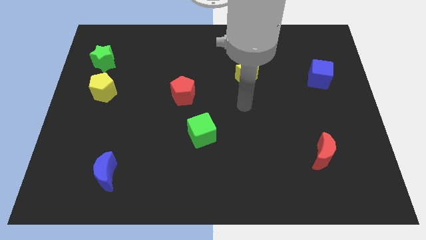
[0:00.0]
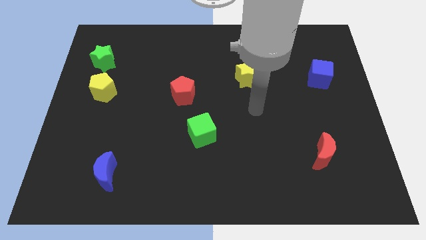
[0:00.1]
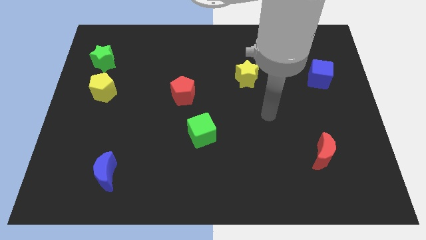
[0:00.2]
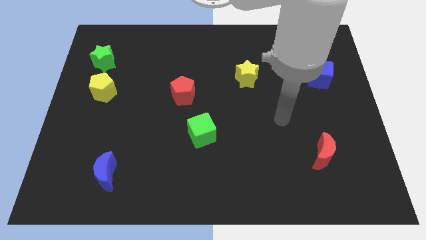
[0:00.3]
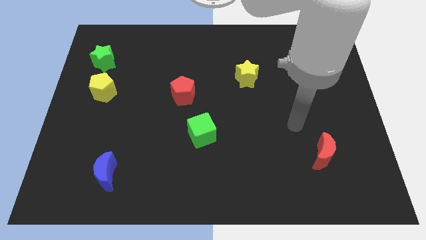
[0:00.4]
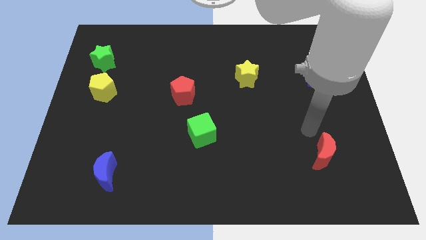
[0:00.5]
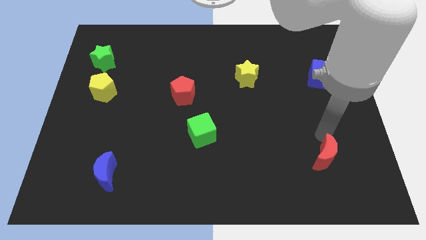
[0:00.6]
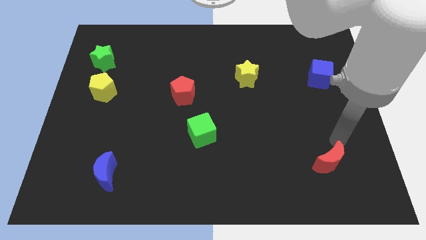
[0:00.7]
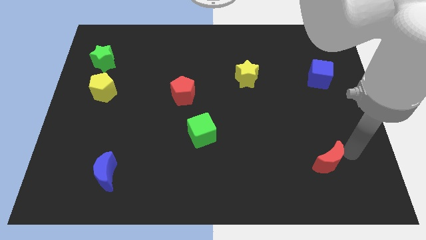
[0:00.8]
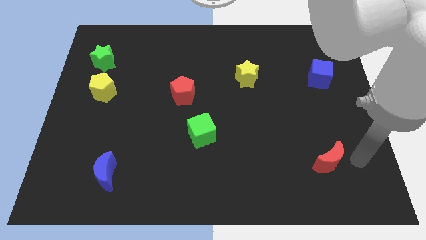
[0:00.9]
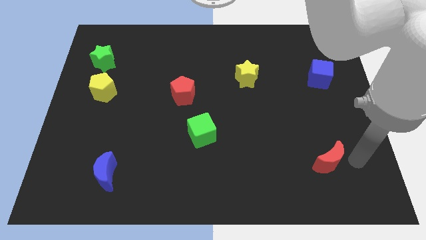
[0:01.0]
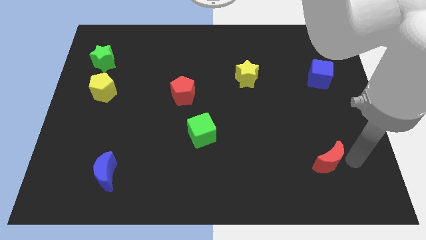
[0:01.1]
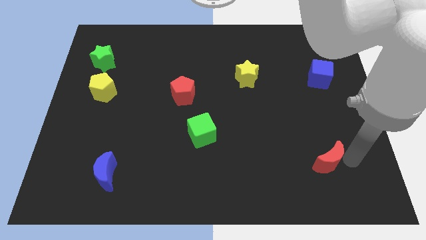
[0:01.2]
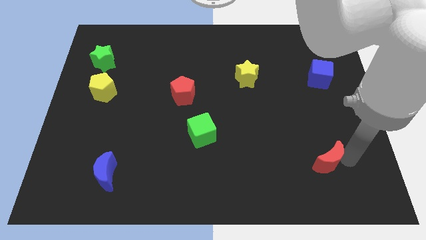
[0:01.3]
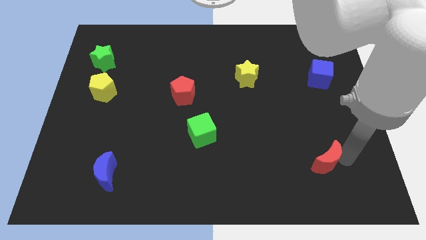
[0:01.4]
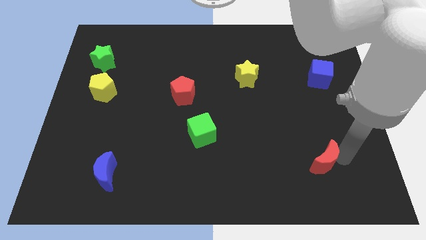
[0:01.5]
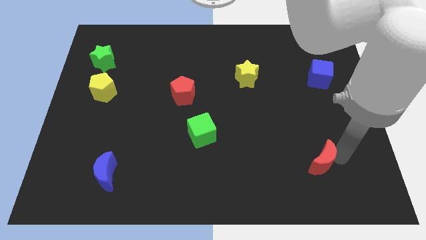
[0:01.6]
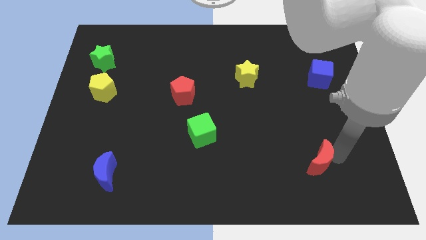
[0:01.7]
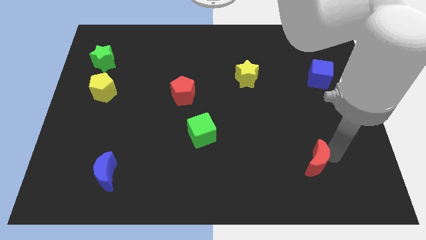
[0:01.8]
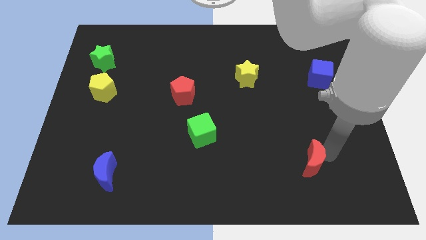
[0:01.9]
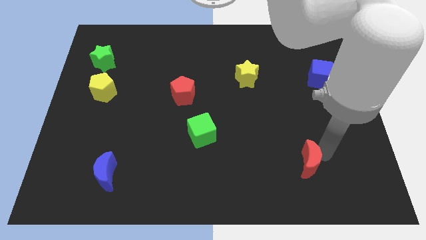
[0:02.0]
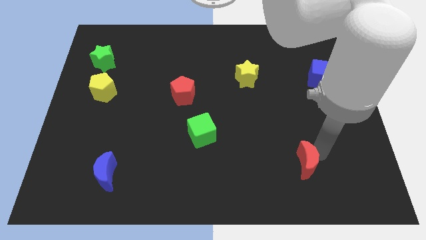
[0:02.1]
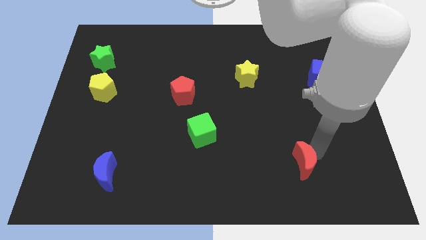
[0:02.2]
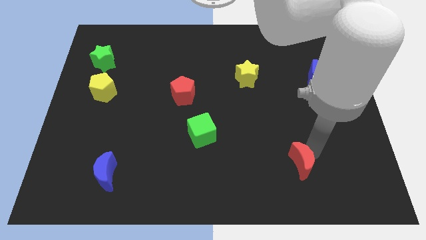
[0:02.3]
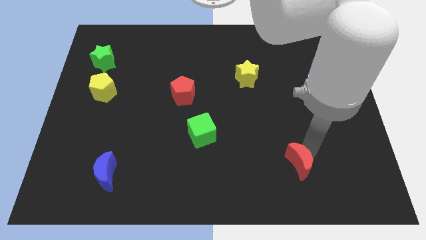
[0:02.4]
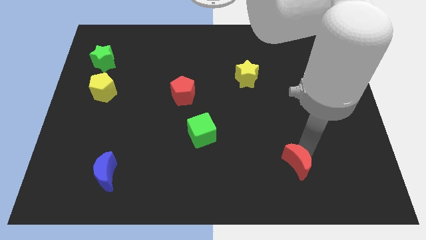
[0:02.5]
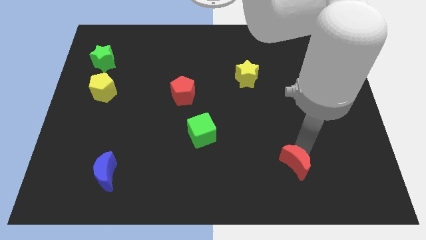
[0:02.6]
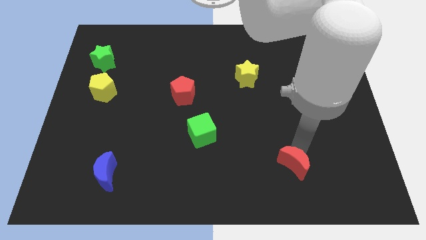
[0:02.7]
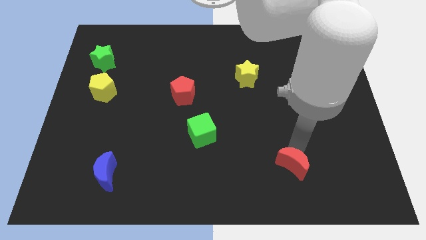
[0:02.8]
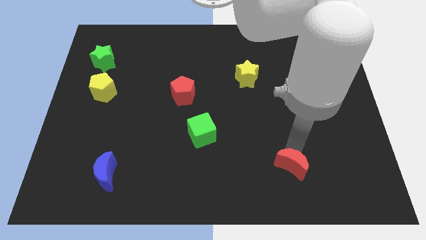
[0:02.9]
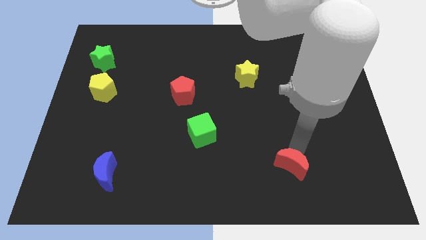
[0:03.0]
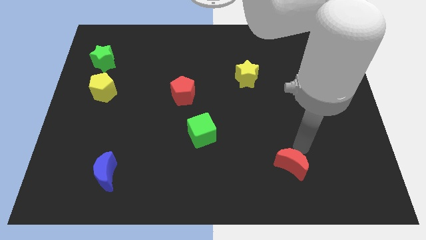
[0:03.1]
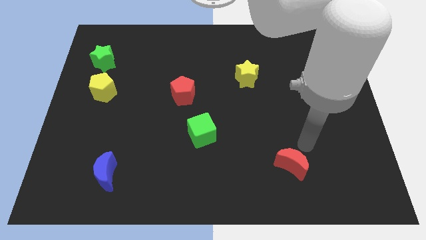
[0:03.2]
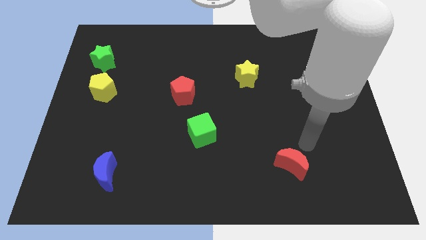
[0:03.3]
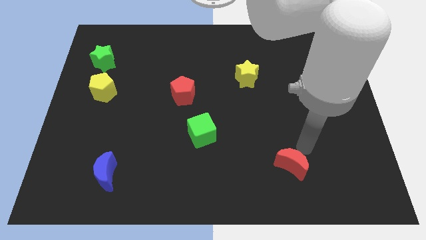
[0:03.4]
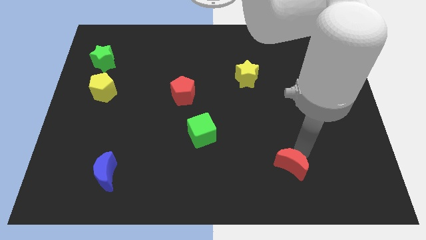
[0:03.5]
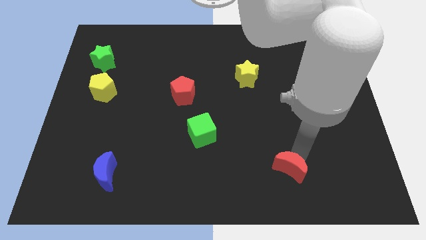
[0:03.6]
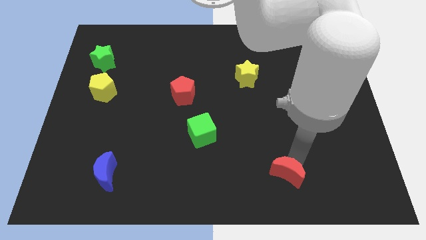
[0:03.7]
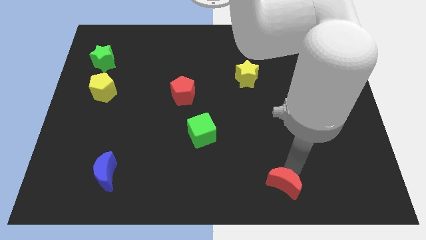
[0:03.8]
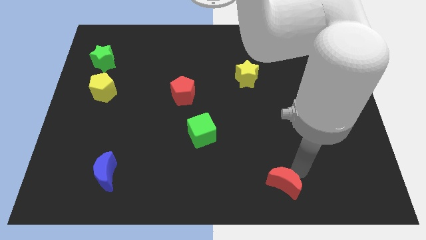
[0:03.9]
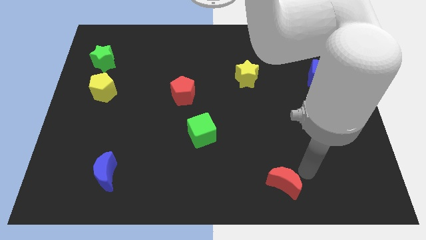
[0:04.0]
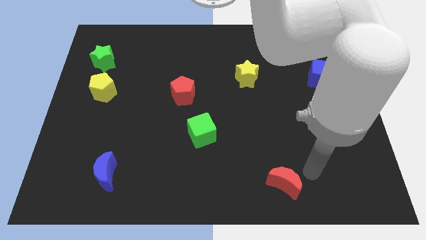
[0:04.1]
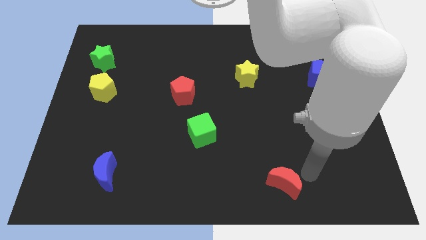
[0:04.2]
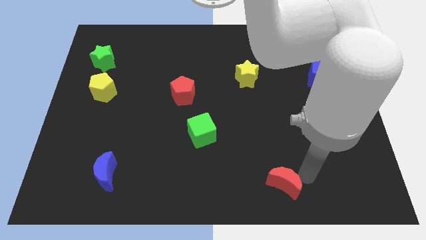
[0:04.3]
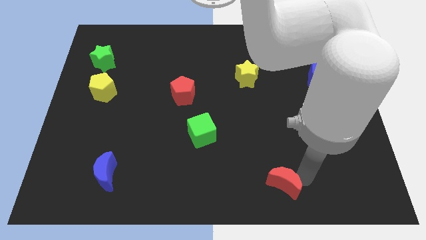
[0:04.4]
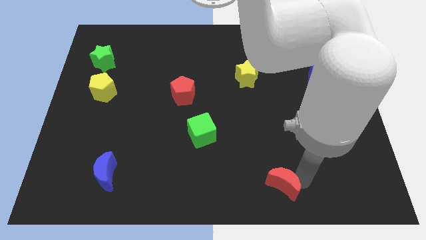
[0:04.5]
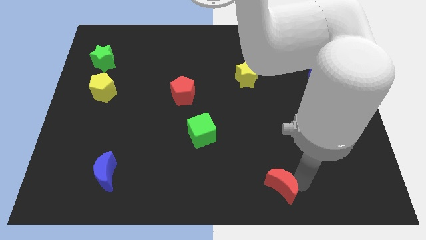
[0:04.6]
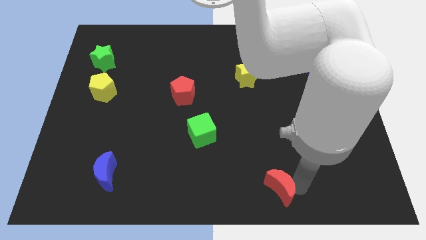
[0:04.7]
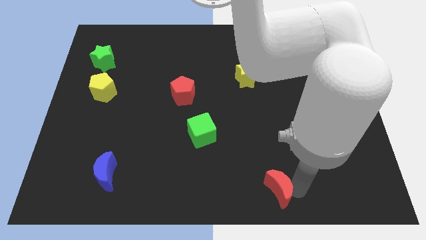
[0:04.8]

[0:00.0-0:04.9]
put the red moon to the bottom

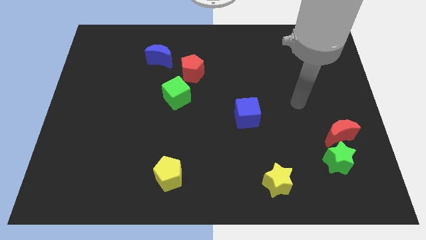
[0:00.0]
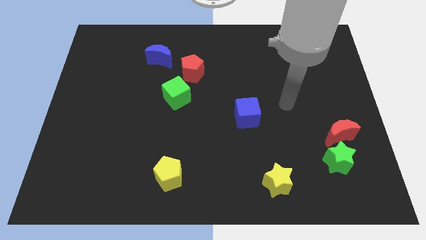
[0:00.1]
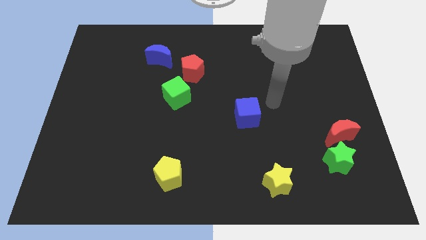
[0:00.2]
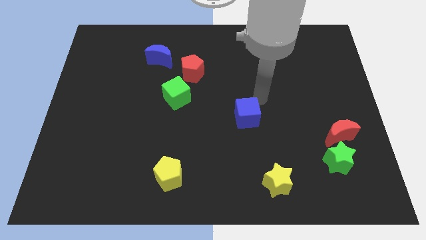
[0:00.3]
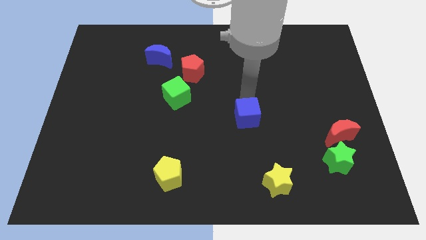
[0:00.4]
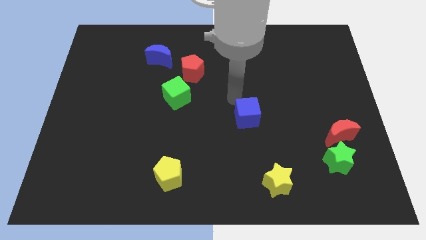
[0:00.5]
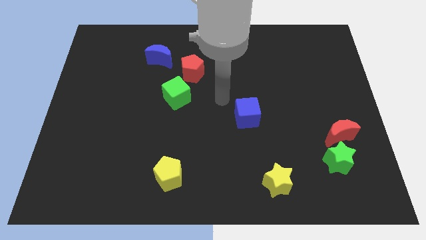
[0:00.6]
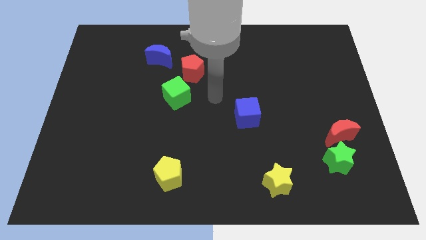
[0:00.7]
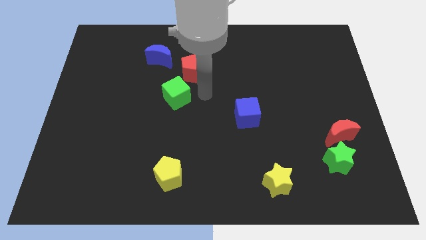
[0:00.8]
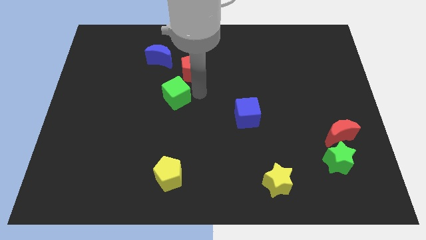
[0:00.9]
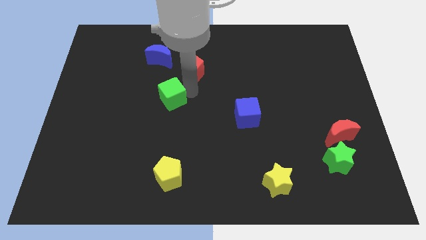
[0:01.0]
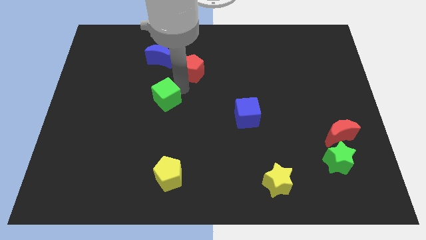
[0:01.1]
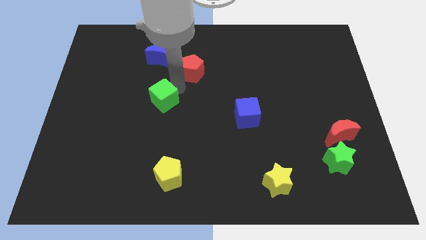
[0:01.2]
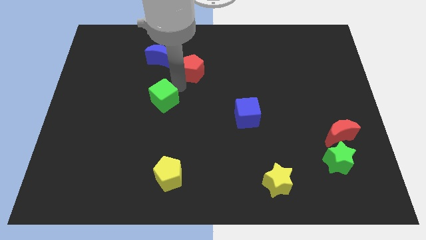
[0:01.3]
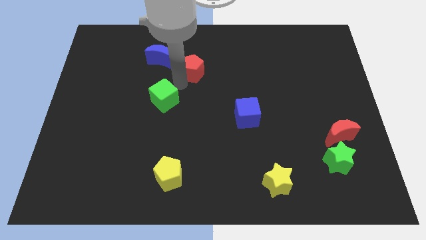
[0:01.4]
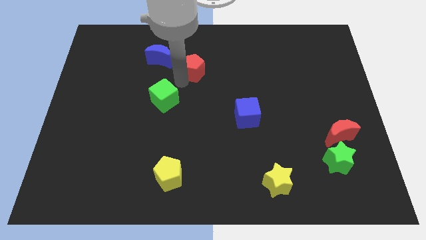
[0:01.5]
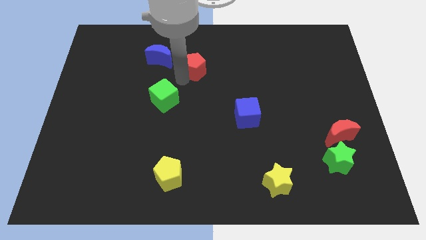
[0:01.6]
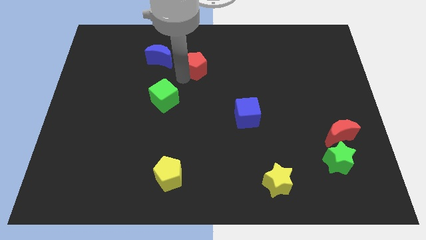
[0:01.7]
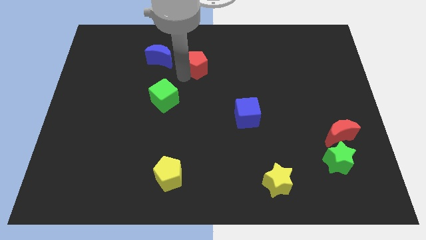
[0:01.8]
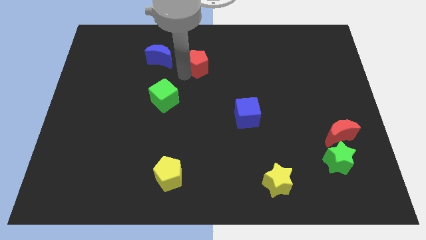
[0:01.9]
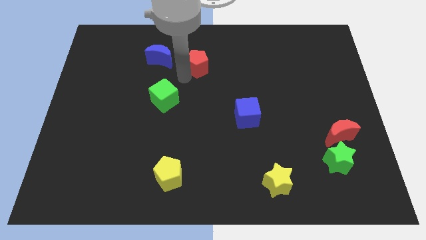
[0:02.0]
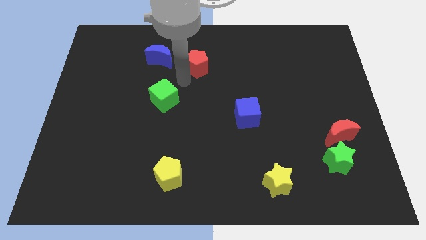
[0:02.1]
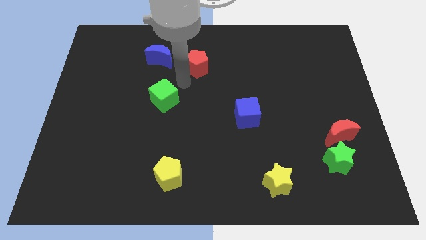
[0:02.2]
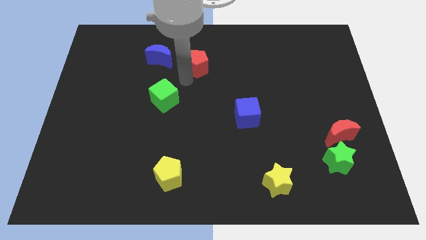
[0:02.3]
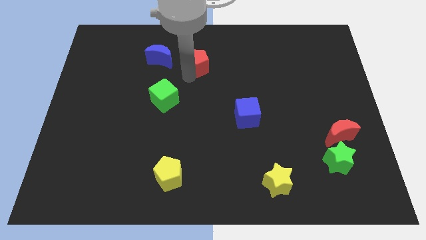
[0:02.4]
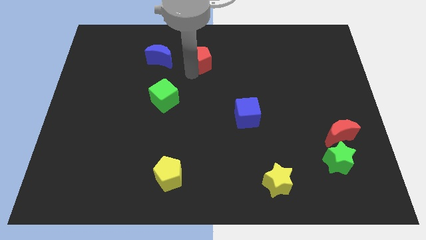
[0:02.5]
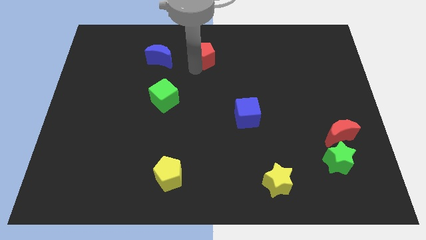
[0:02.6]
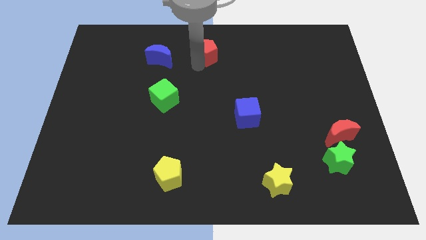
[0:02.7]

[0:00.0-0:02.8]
move the red pentagon to the top side
